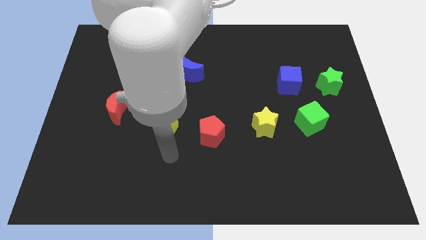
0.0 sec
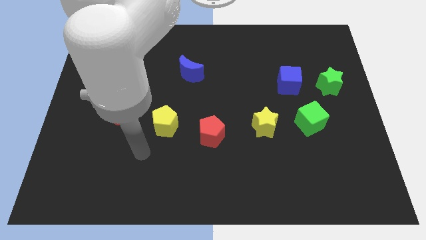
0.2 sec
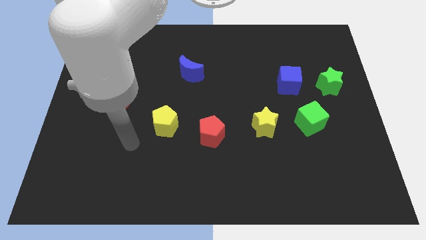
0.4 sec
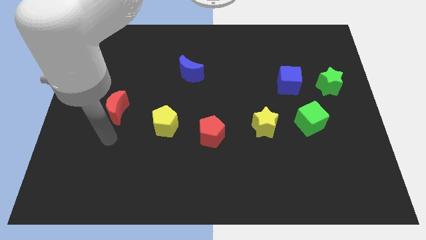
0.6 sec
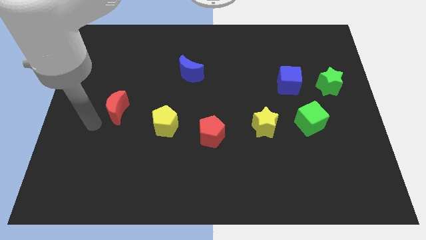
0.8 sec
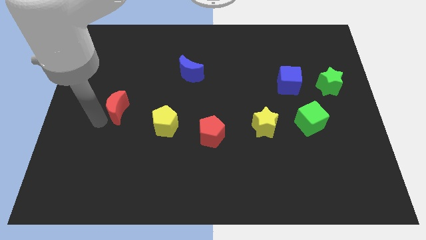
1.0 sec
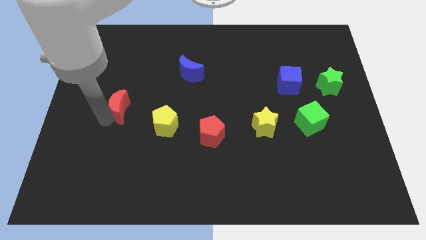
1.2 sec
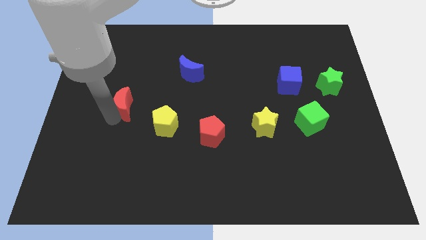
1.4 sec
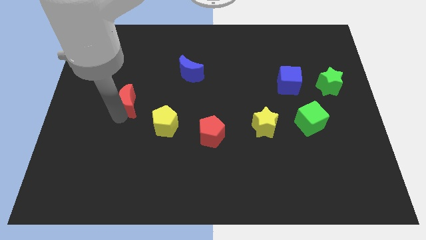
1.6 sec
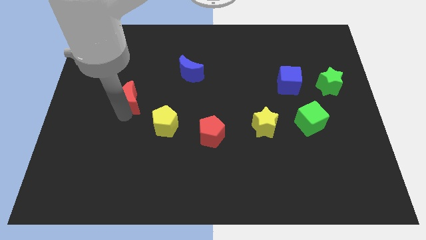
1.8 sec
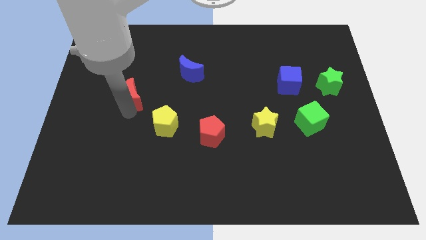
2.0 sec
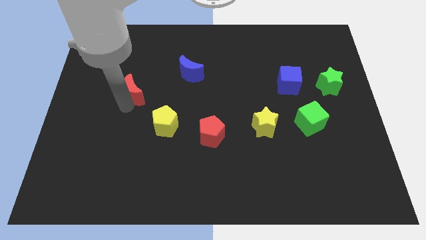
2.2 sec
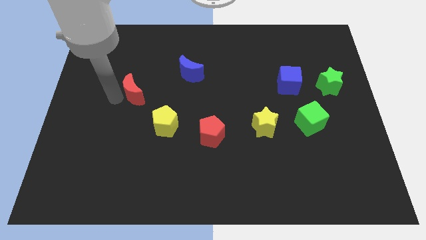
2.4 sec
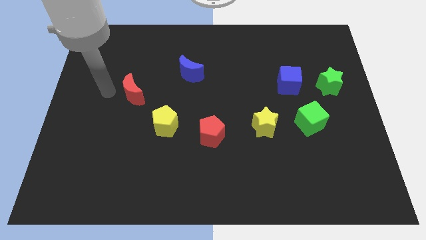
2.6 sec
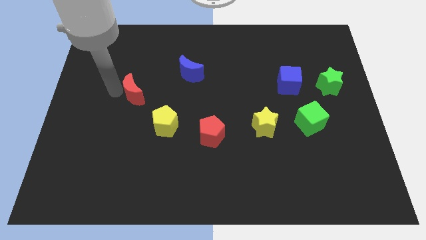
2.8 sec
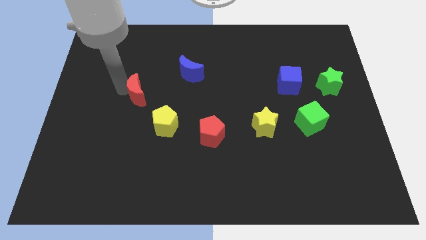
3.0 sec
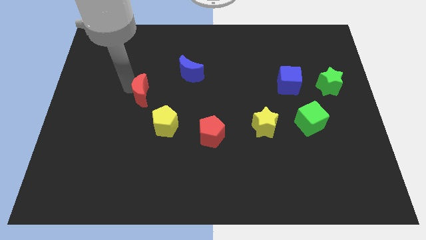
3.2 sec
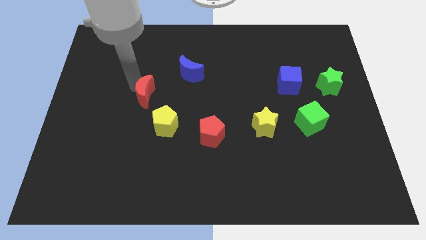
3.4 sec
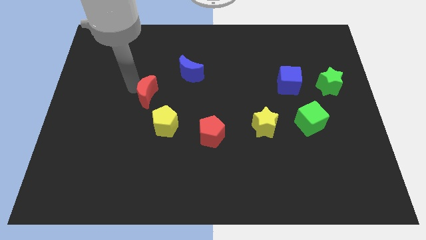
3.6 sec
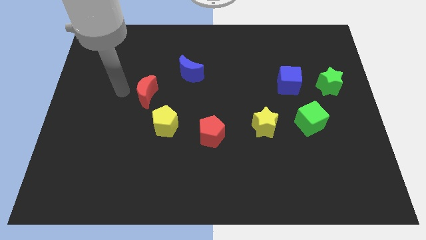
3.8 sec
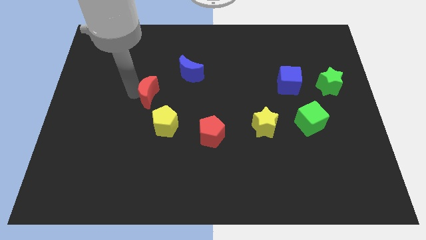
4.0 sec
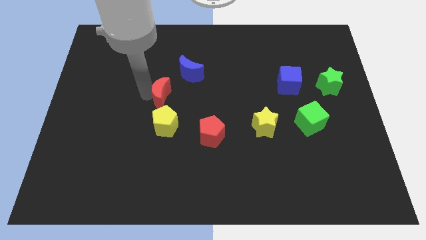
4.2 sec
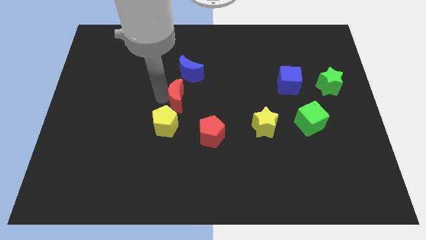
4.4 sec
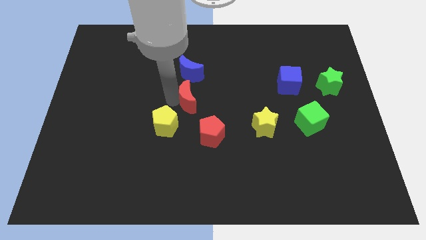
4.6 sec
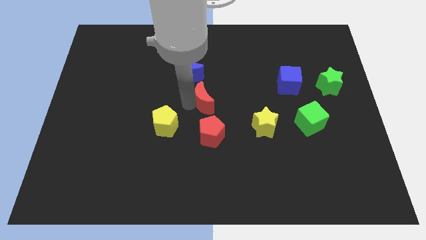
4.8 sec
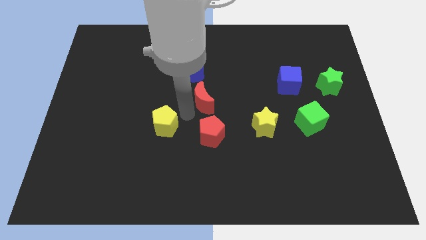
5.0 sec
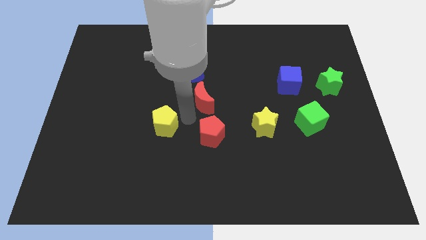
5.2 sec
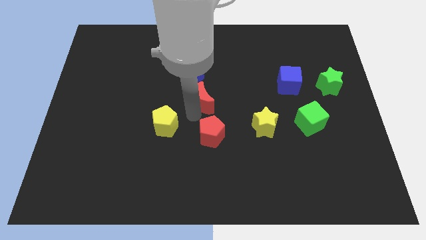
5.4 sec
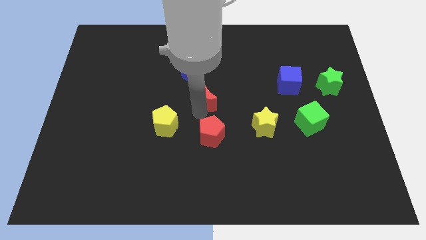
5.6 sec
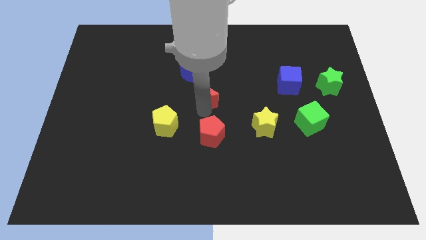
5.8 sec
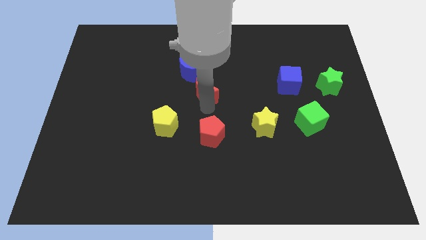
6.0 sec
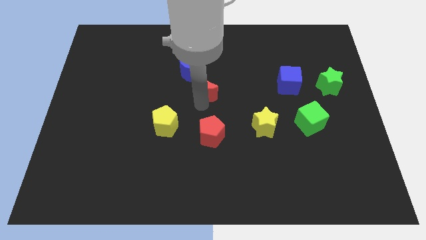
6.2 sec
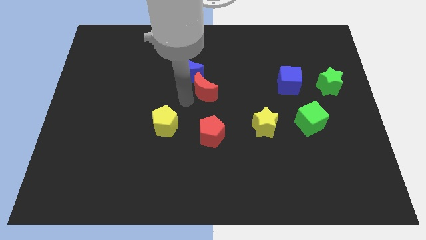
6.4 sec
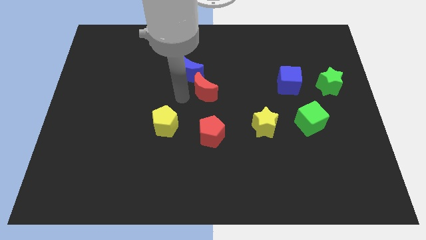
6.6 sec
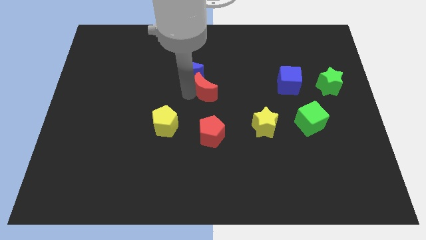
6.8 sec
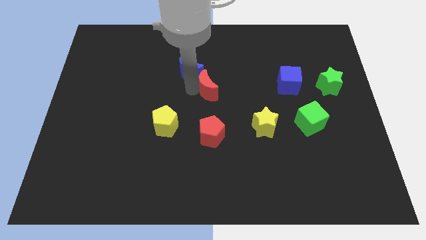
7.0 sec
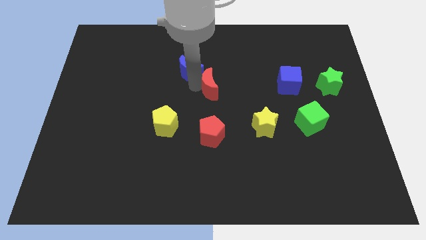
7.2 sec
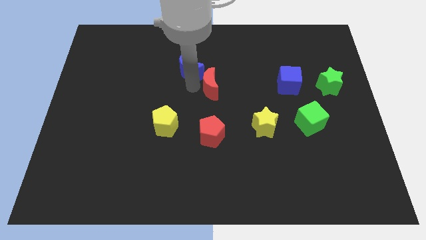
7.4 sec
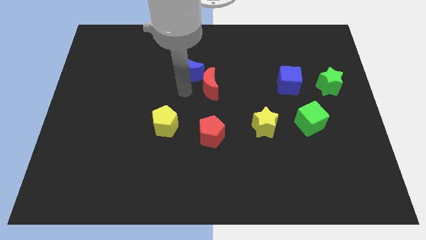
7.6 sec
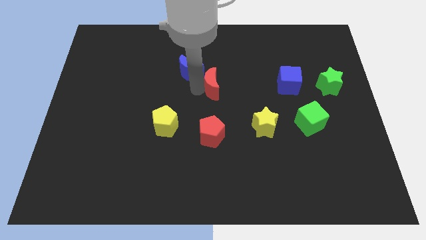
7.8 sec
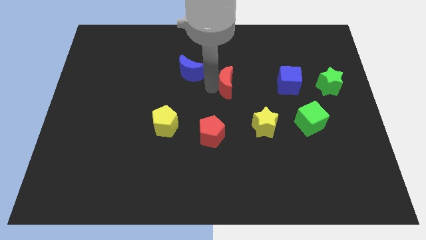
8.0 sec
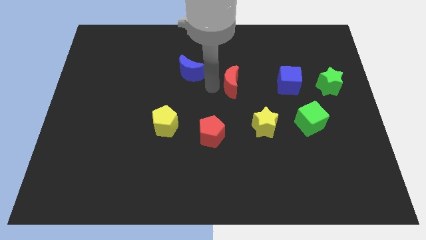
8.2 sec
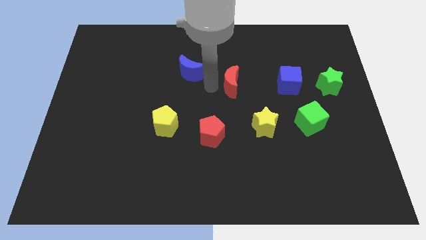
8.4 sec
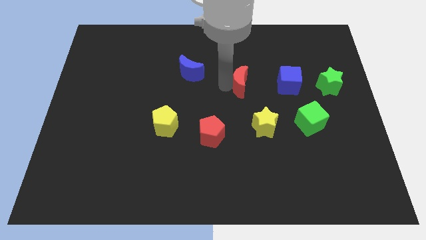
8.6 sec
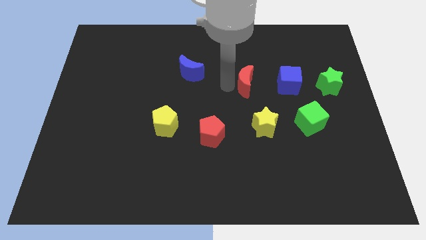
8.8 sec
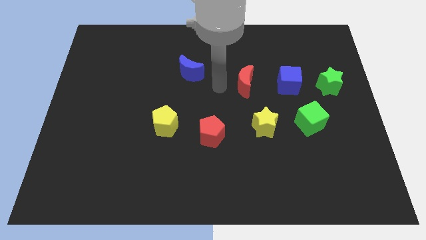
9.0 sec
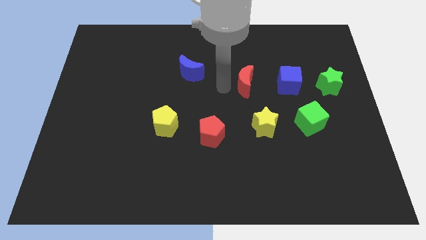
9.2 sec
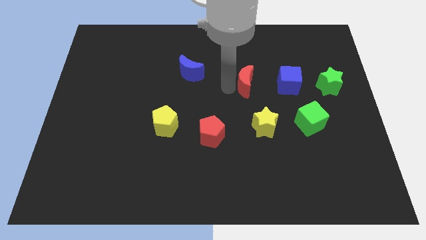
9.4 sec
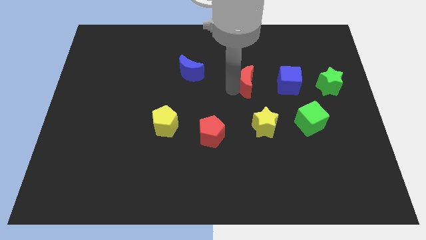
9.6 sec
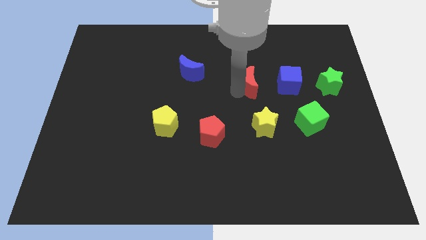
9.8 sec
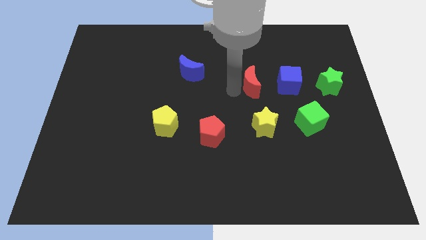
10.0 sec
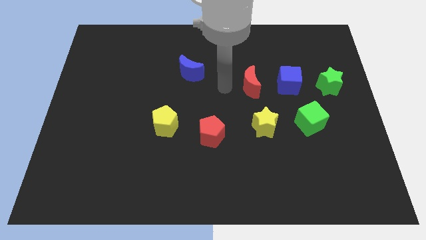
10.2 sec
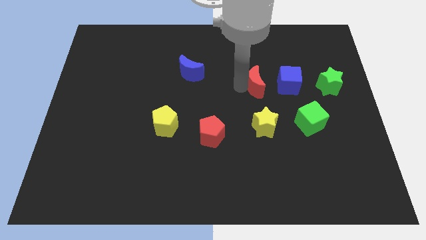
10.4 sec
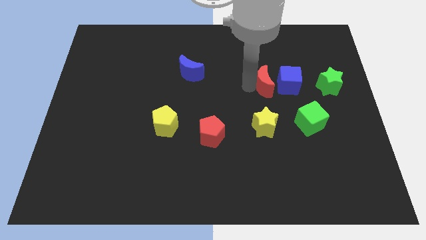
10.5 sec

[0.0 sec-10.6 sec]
move the red moon close to the blue cube

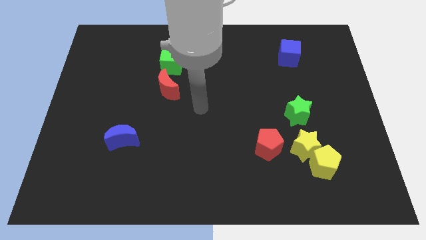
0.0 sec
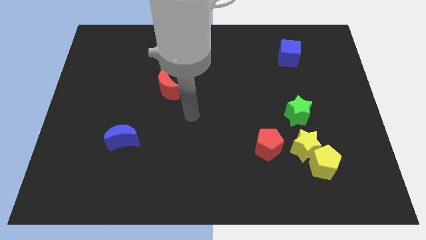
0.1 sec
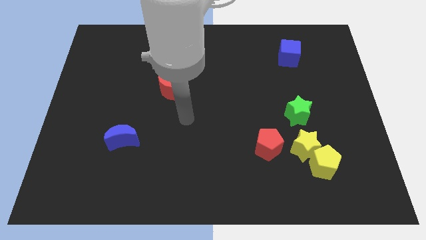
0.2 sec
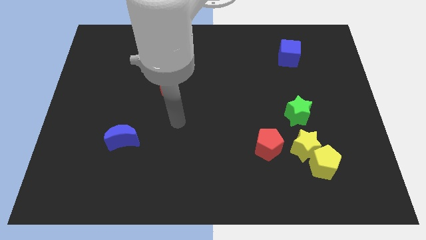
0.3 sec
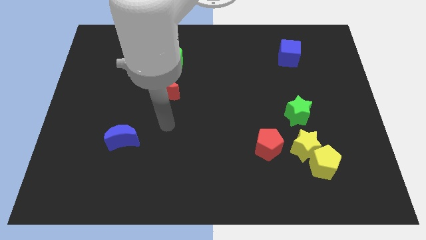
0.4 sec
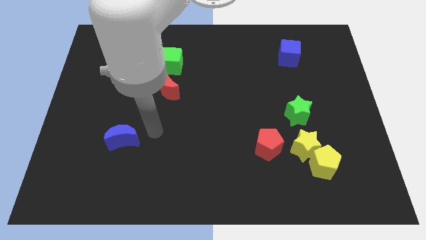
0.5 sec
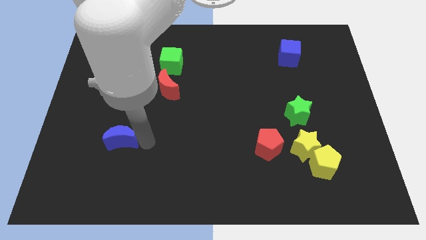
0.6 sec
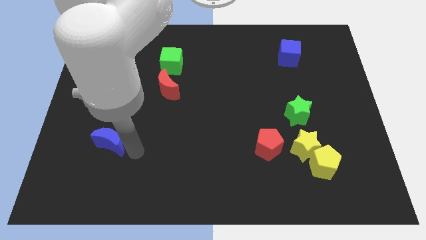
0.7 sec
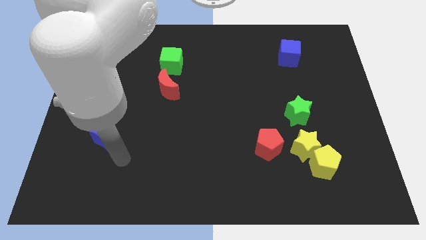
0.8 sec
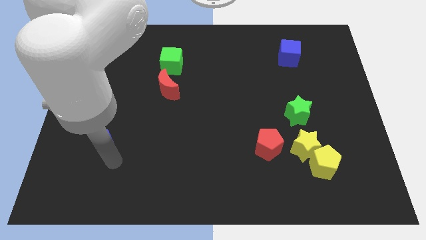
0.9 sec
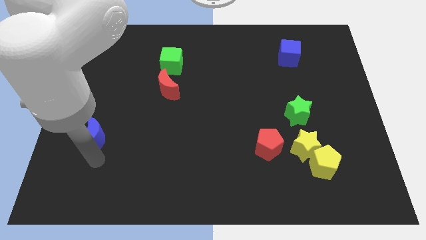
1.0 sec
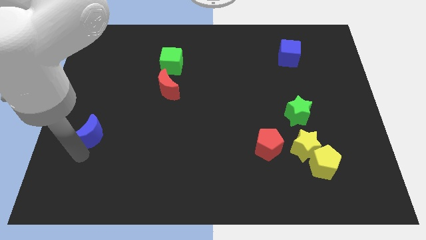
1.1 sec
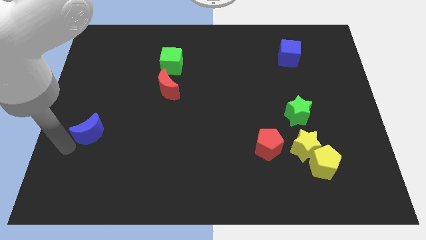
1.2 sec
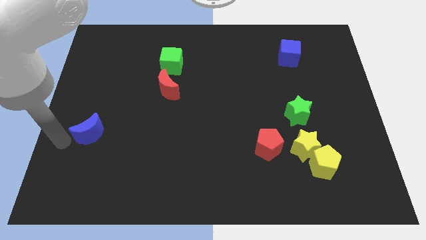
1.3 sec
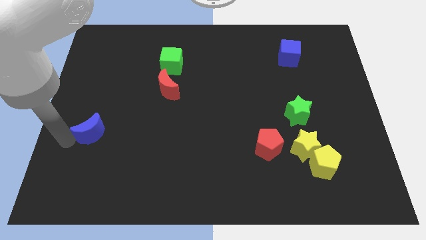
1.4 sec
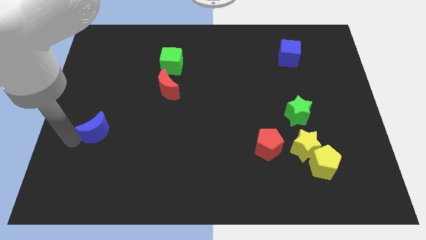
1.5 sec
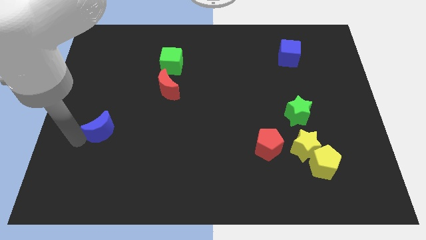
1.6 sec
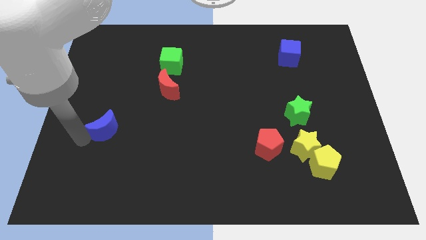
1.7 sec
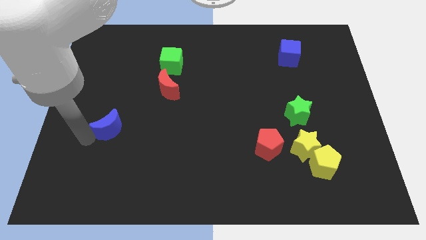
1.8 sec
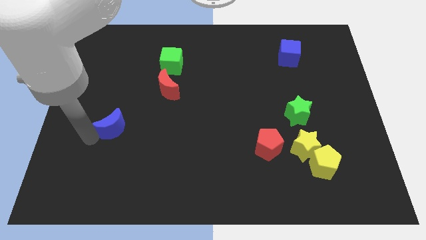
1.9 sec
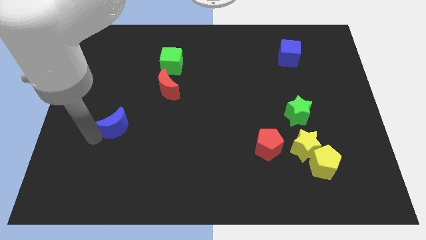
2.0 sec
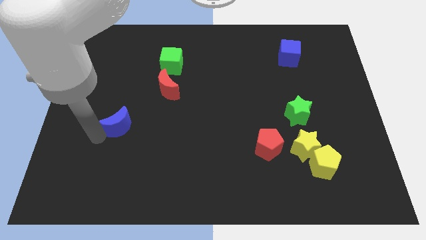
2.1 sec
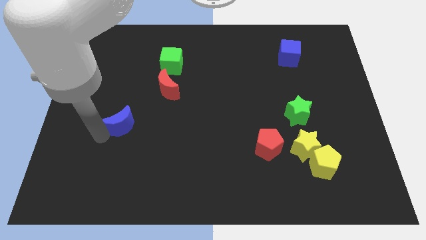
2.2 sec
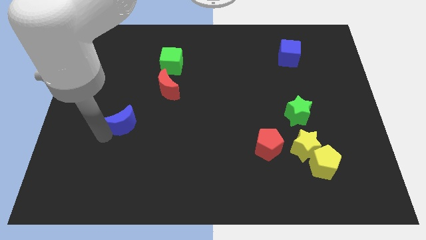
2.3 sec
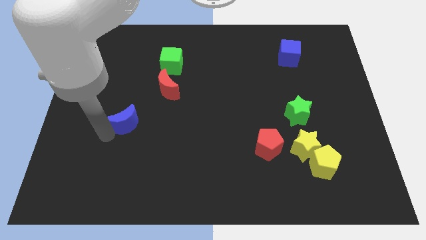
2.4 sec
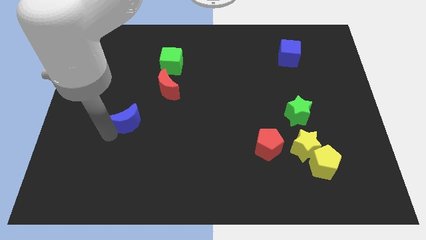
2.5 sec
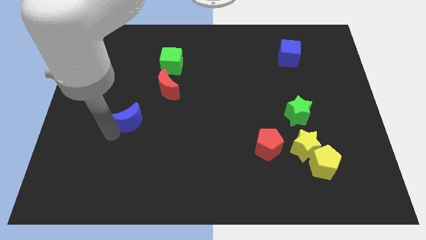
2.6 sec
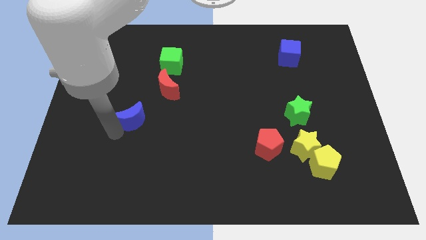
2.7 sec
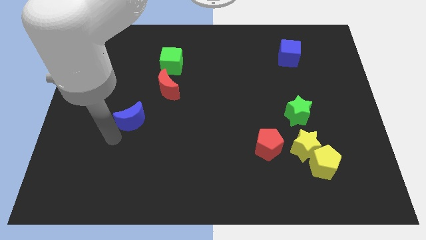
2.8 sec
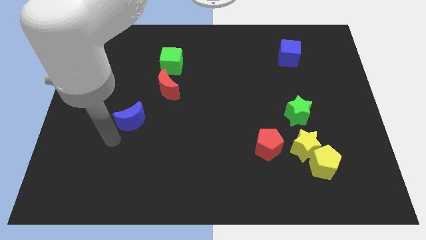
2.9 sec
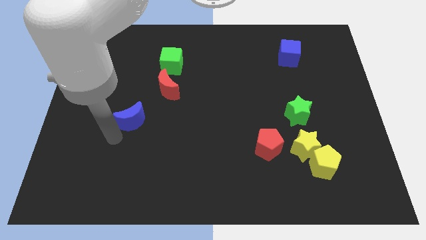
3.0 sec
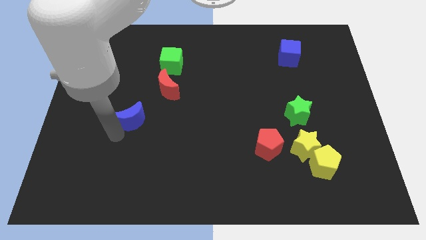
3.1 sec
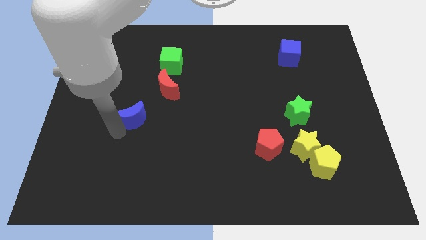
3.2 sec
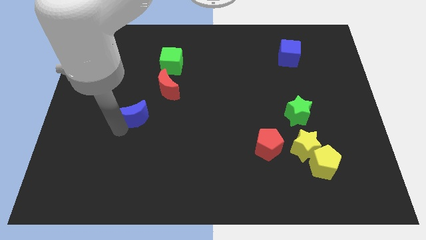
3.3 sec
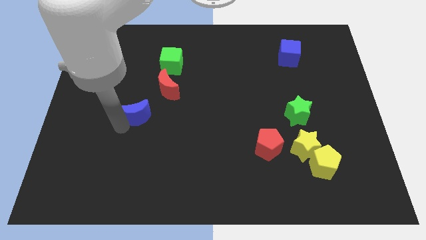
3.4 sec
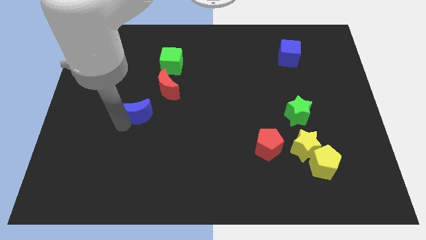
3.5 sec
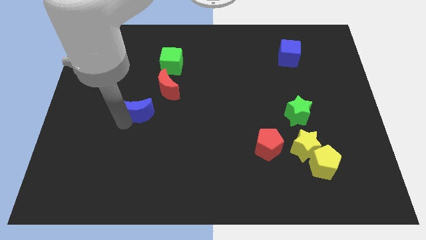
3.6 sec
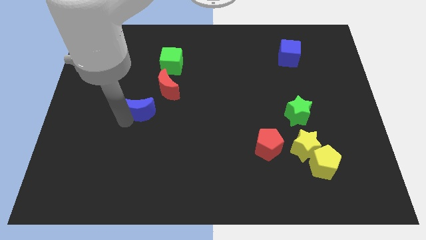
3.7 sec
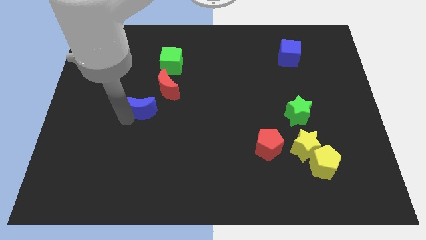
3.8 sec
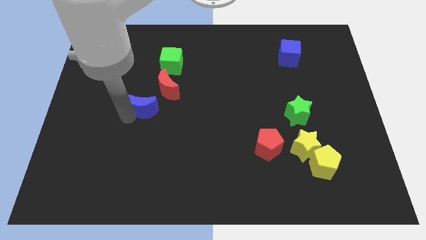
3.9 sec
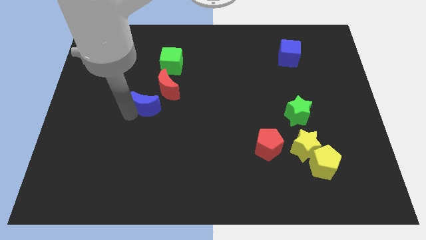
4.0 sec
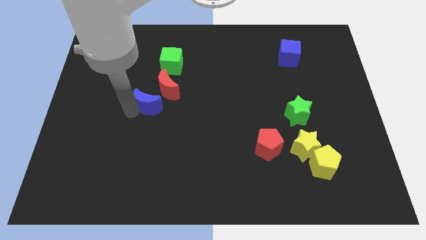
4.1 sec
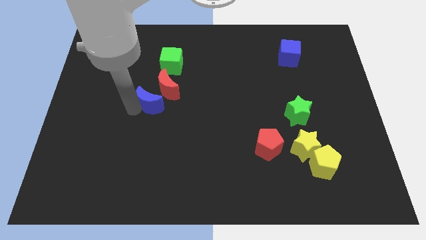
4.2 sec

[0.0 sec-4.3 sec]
slide the blue moon close to the red moon
